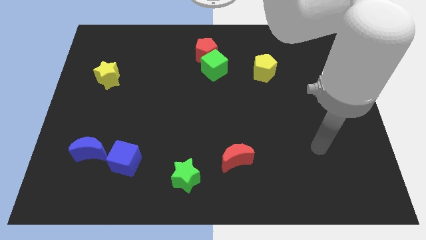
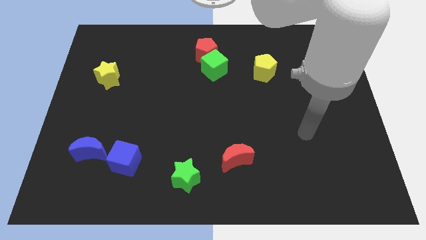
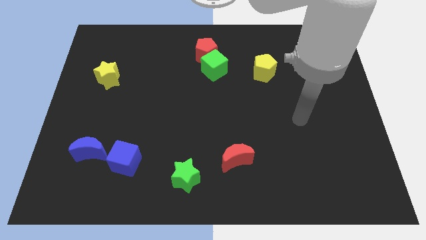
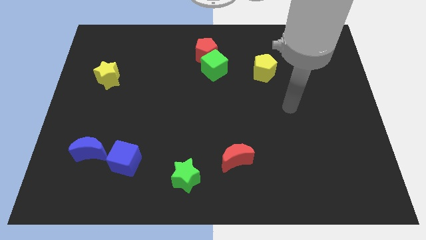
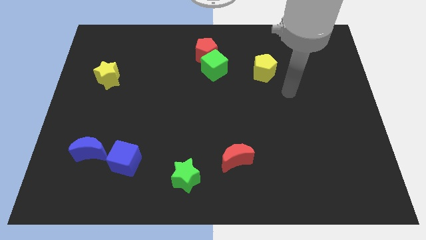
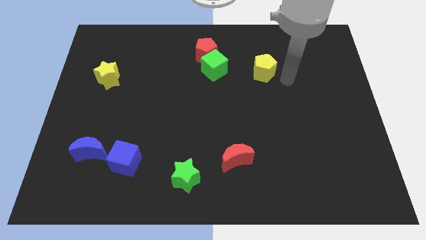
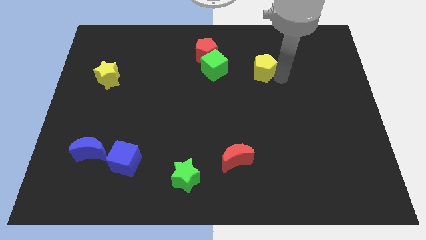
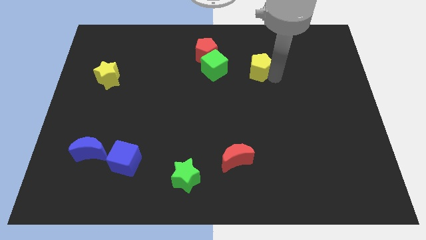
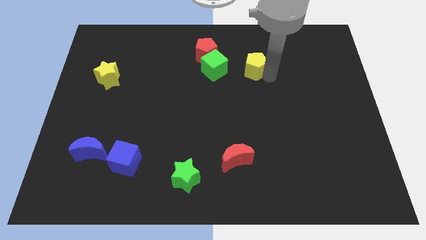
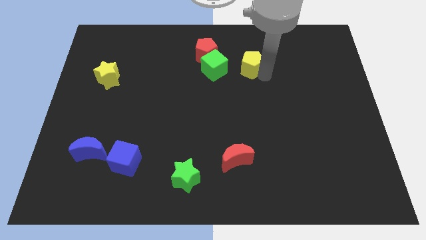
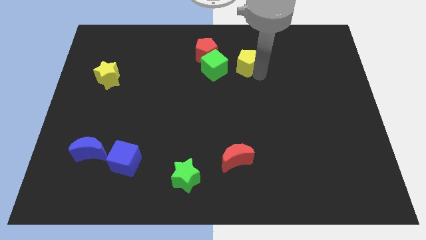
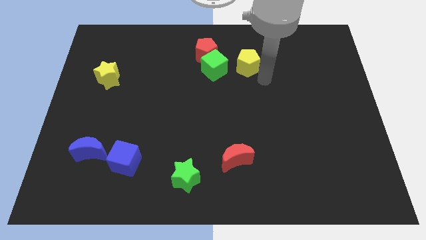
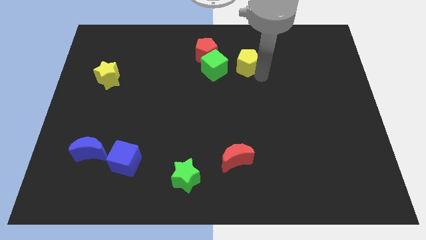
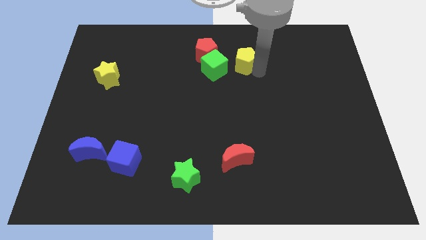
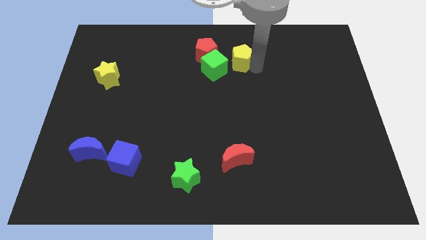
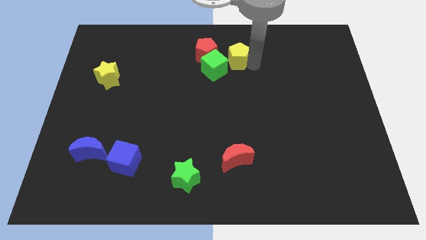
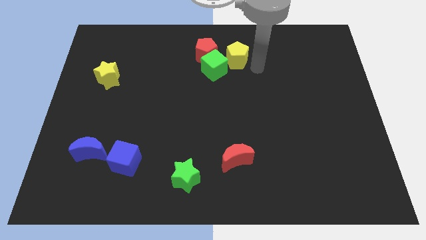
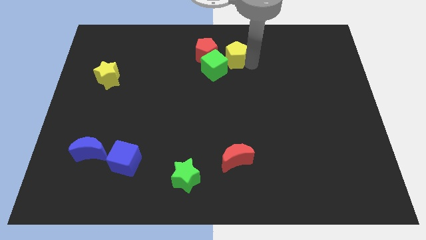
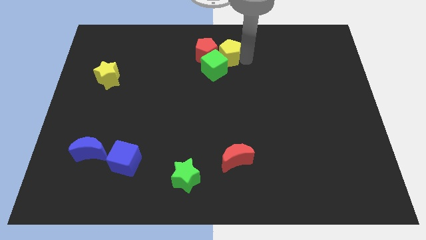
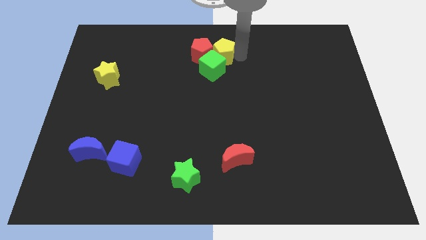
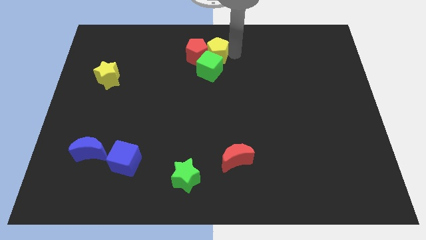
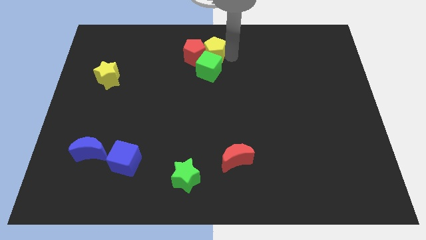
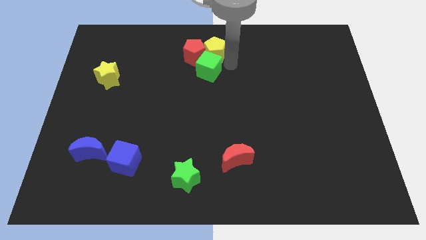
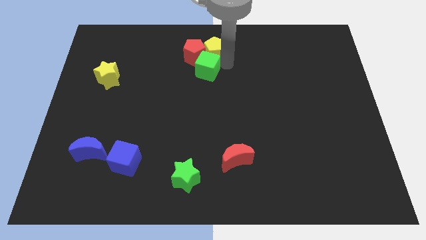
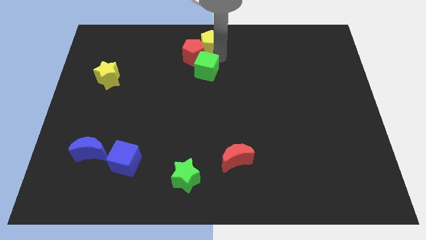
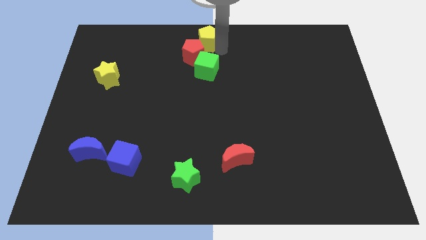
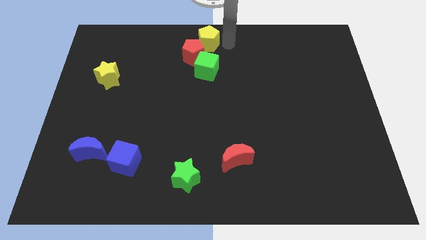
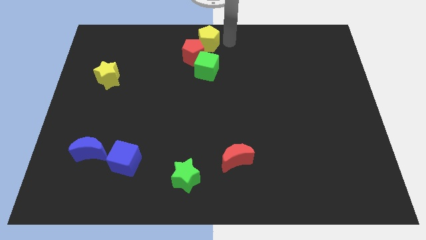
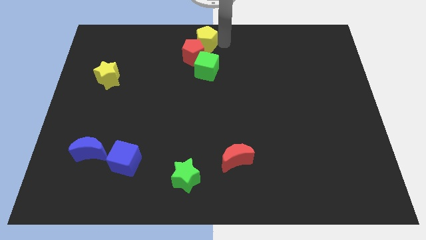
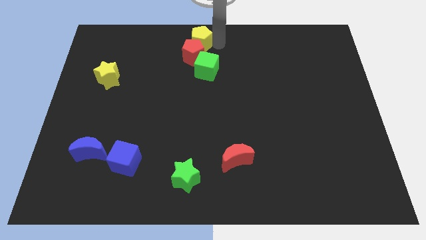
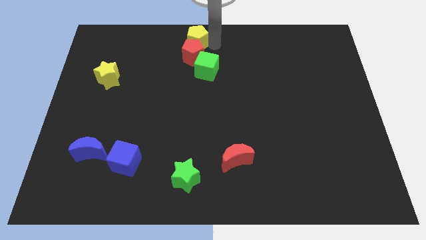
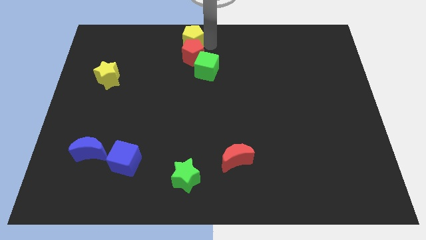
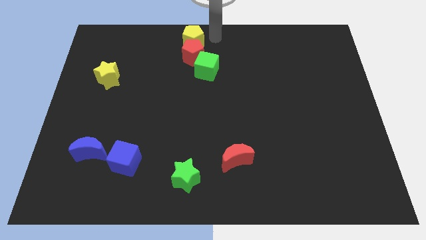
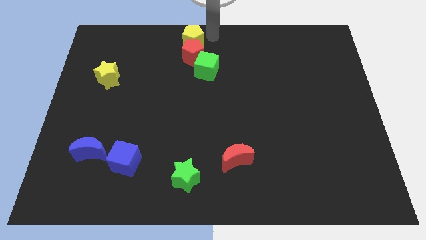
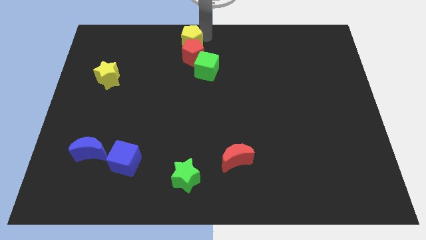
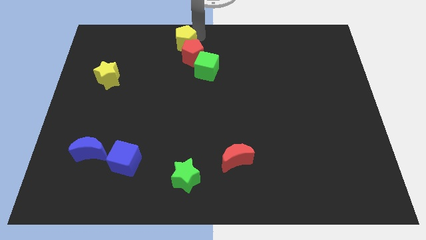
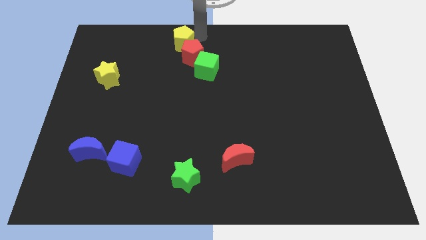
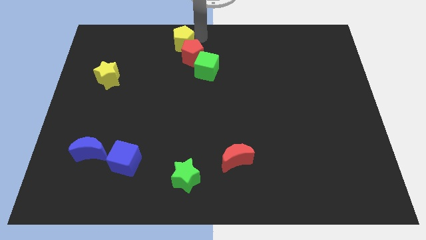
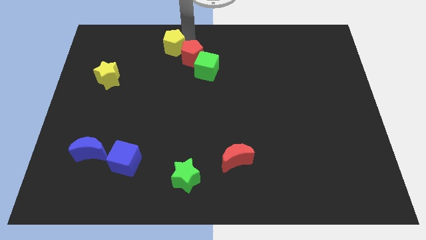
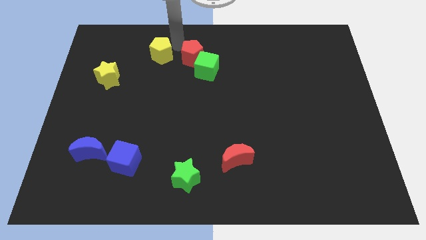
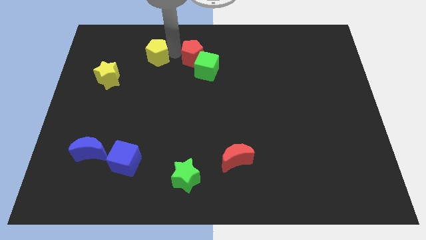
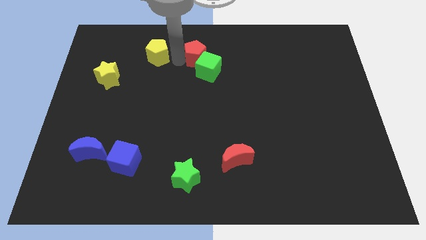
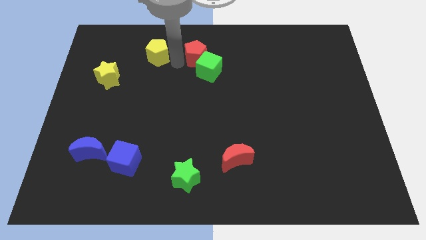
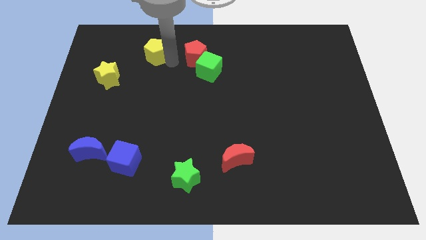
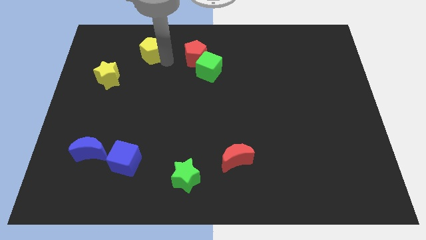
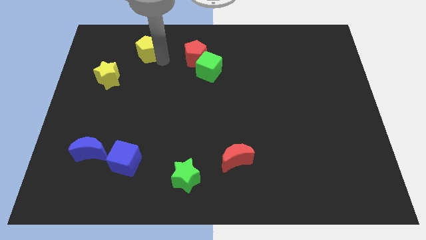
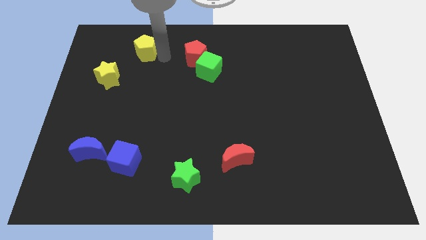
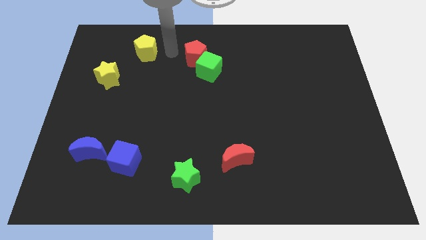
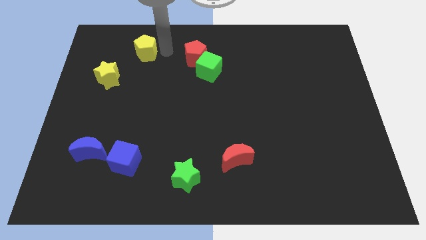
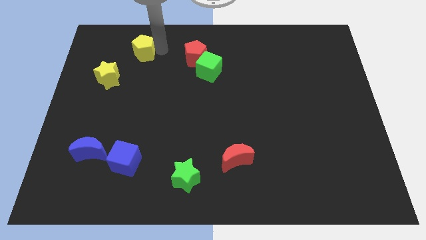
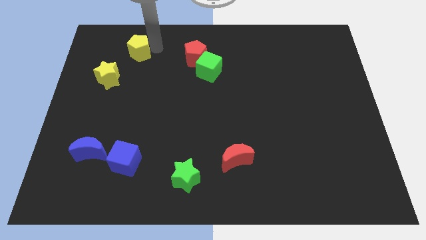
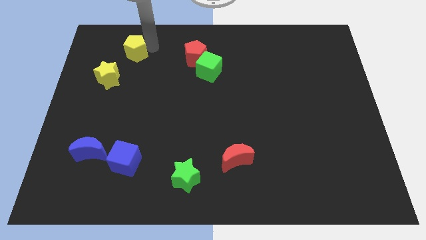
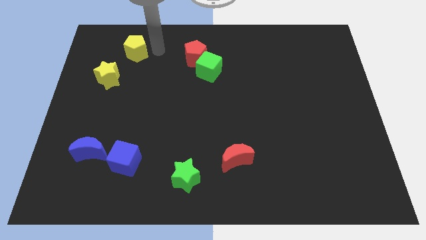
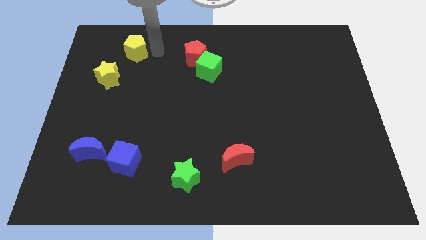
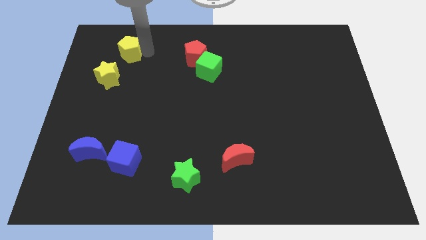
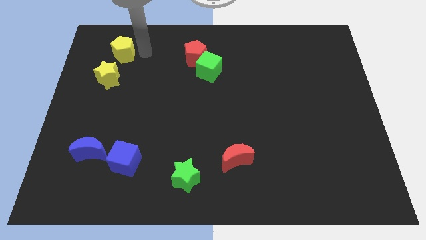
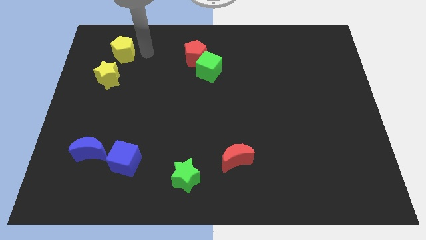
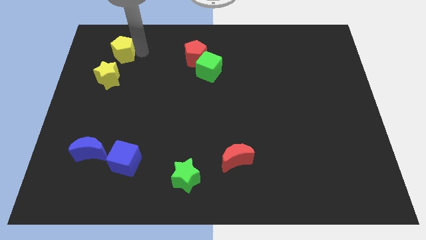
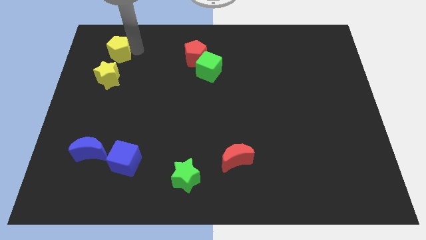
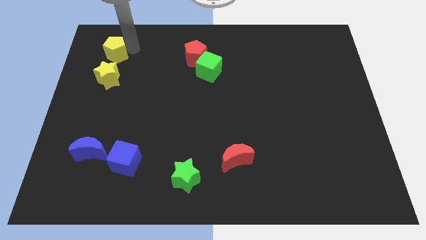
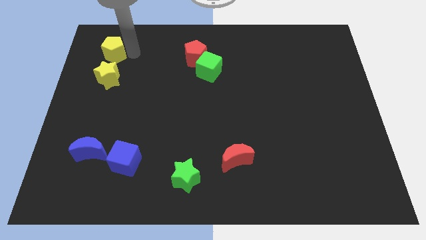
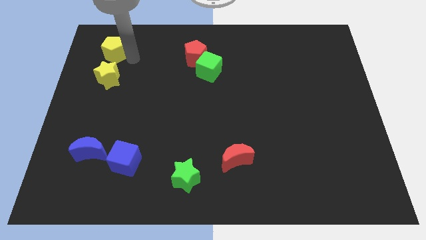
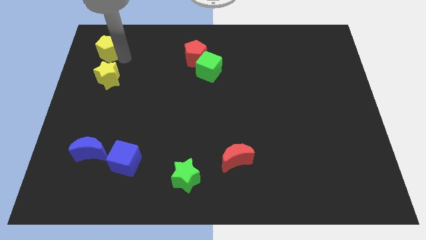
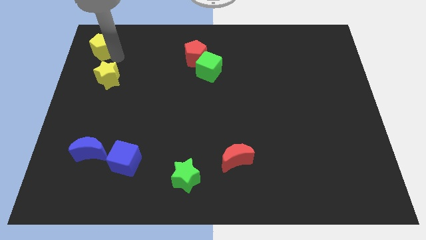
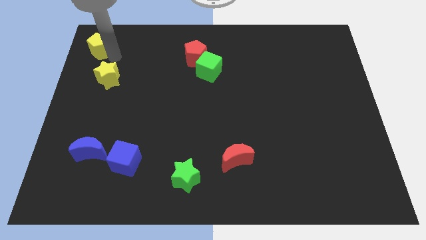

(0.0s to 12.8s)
move the yellow pentagon to the top left

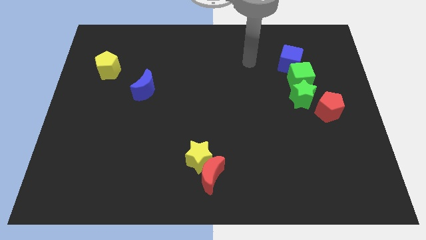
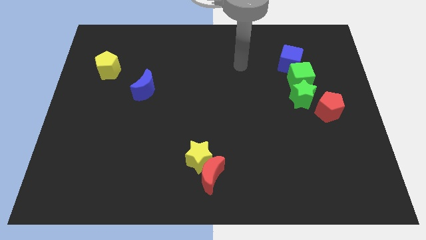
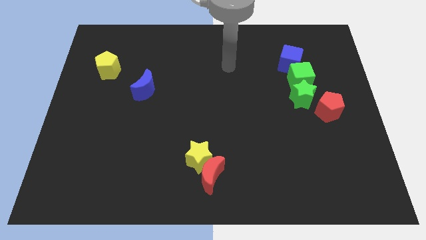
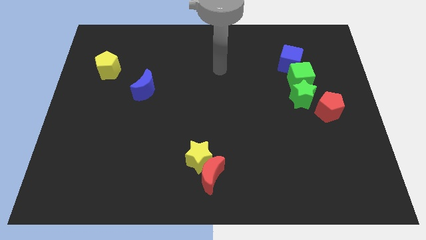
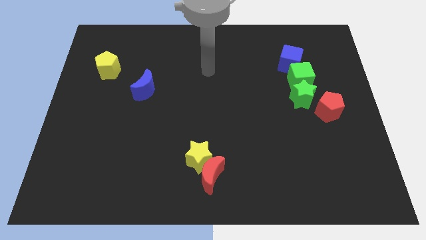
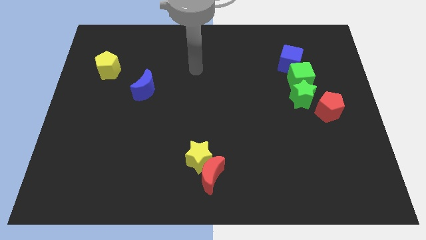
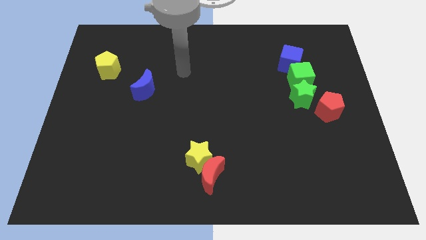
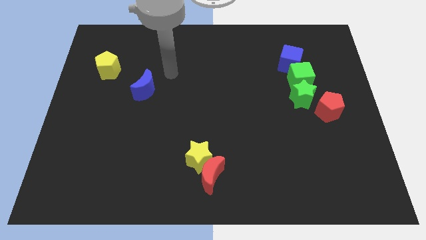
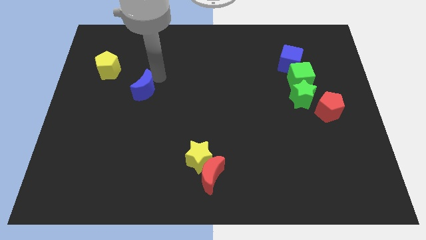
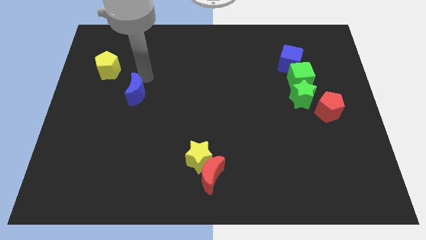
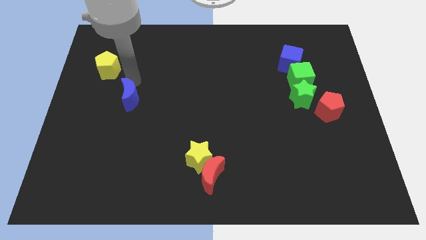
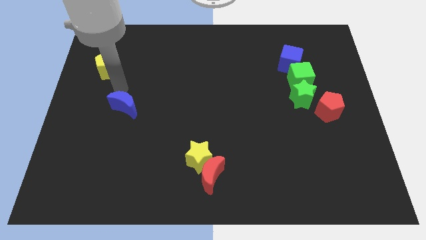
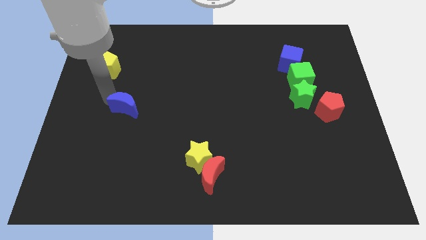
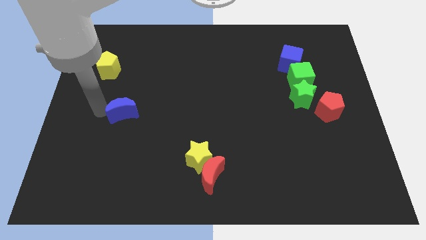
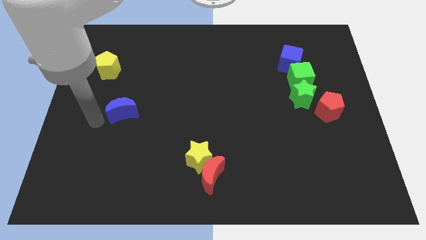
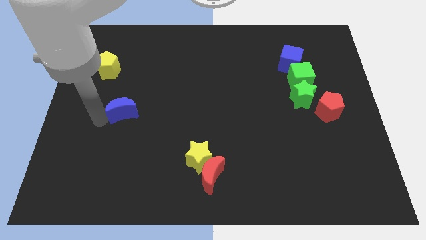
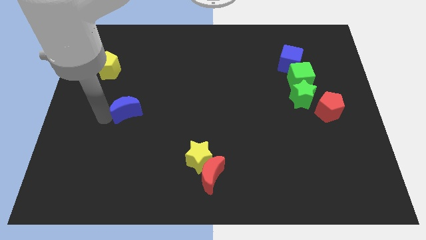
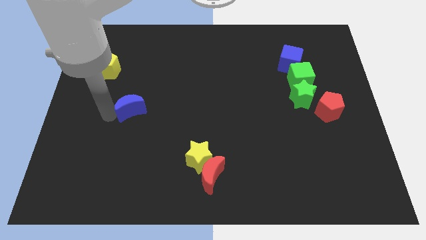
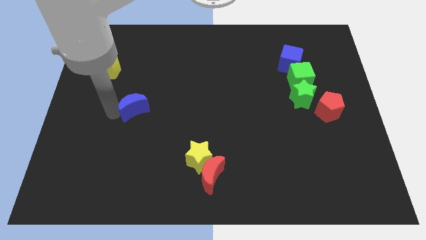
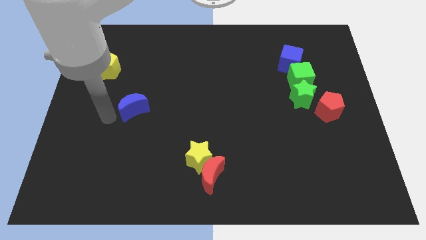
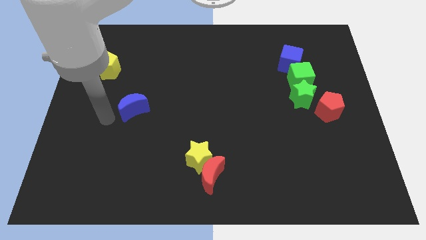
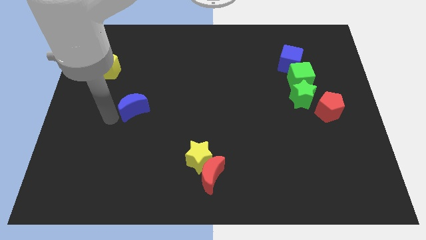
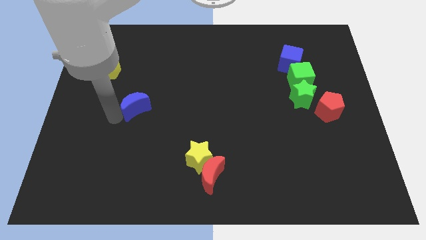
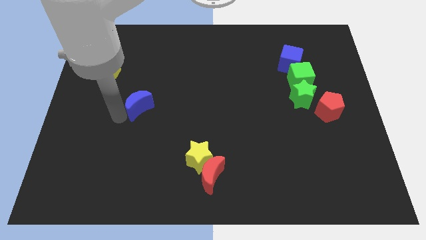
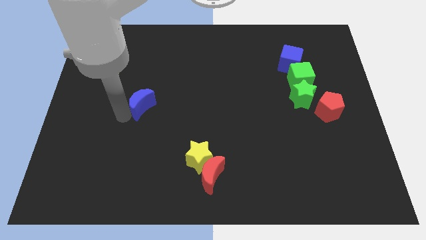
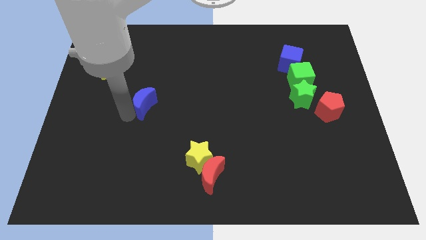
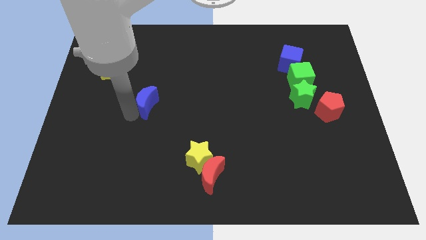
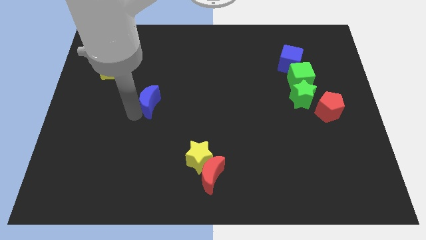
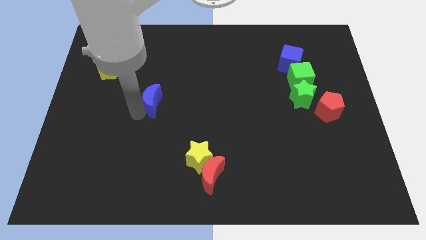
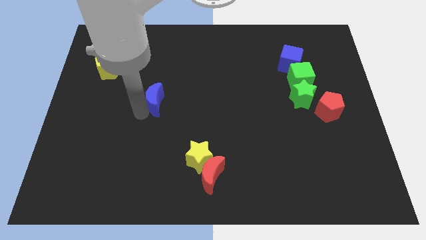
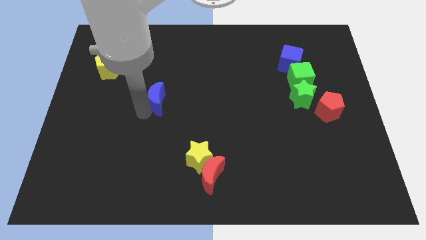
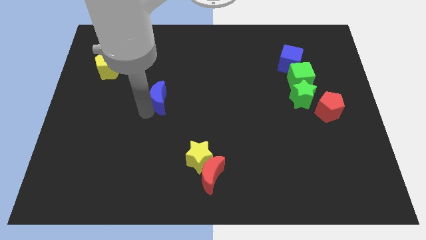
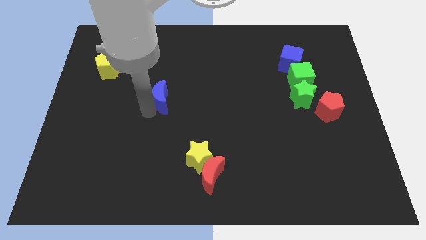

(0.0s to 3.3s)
push the blue moon to the middle of the board
